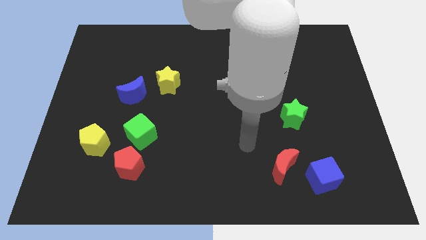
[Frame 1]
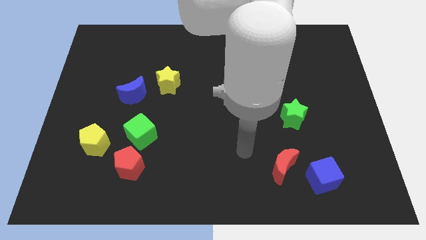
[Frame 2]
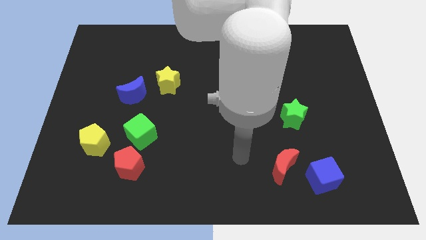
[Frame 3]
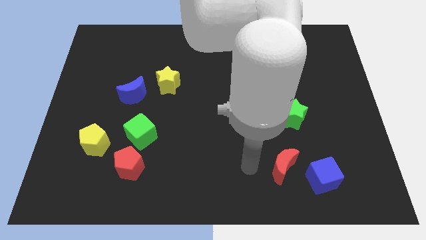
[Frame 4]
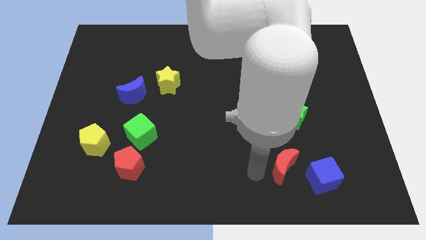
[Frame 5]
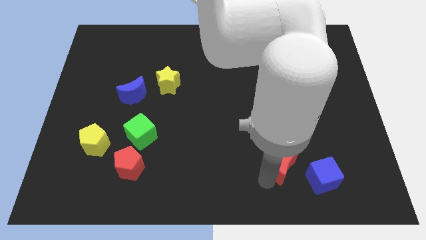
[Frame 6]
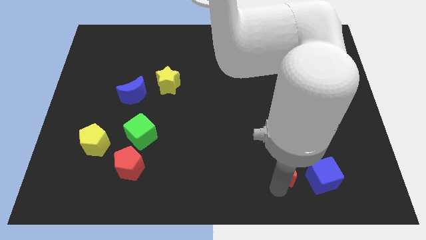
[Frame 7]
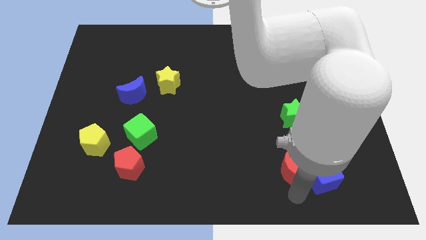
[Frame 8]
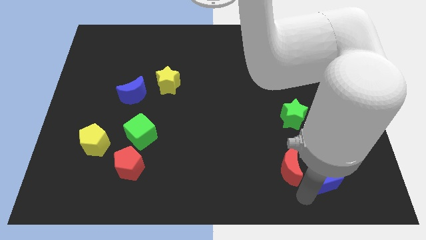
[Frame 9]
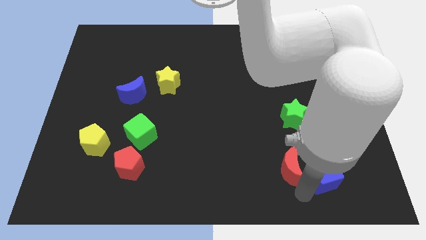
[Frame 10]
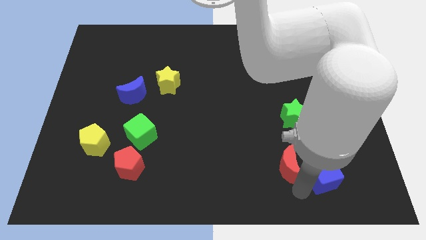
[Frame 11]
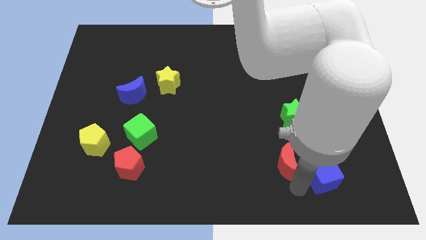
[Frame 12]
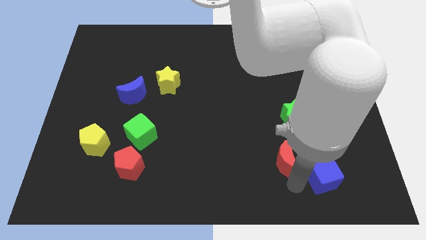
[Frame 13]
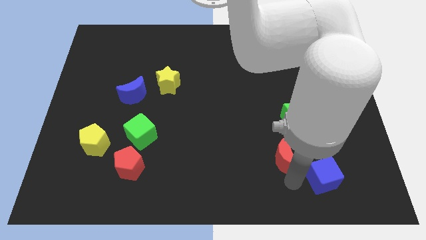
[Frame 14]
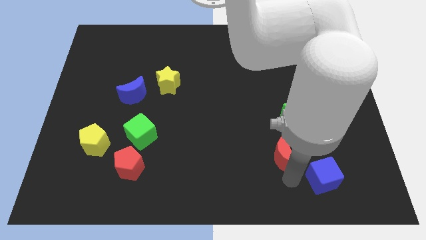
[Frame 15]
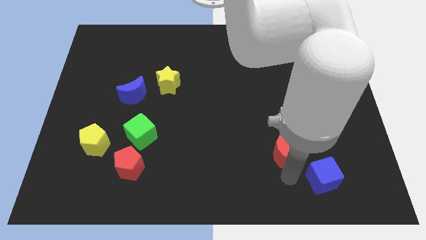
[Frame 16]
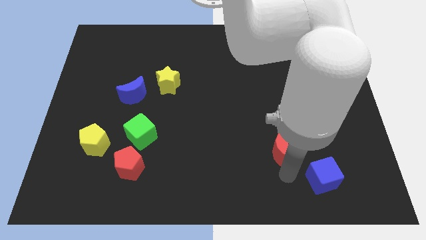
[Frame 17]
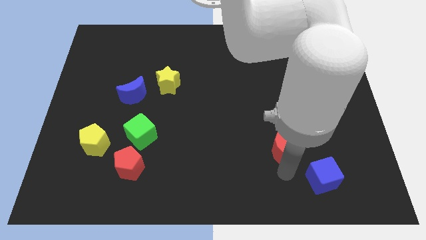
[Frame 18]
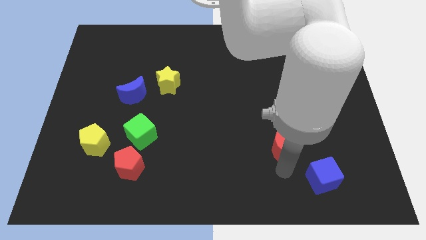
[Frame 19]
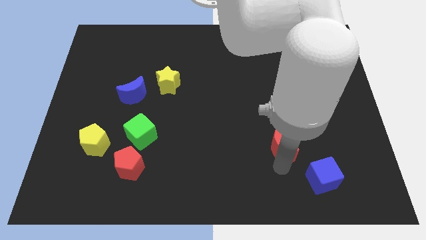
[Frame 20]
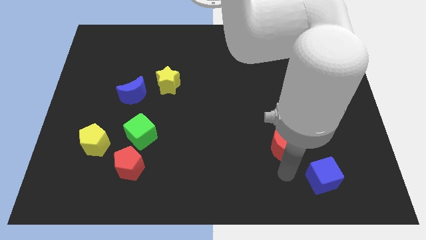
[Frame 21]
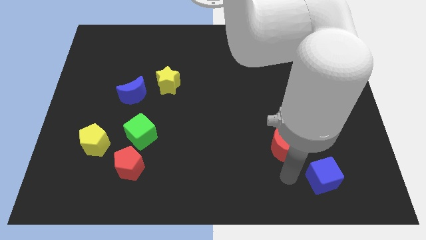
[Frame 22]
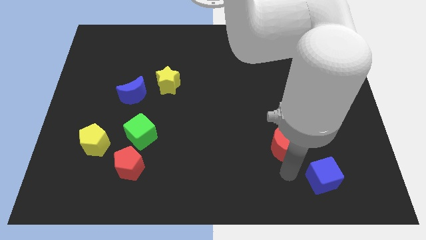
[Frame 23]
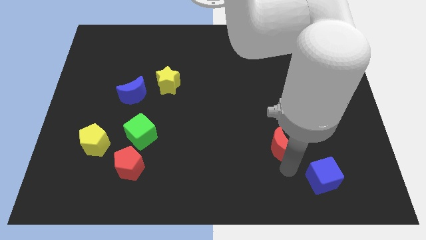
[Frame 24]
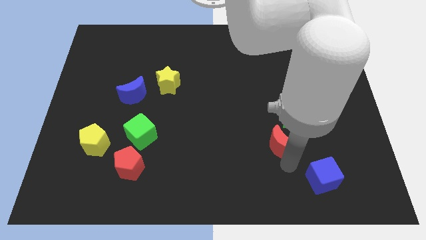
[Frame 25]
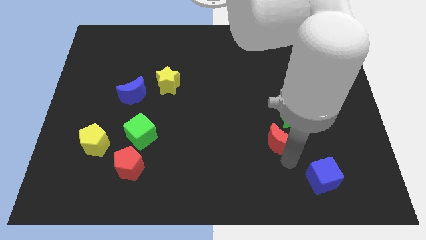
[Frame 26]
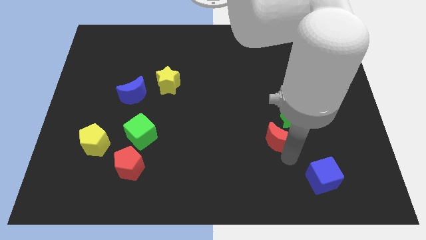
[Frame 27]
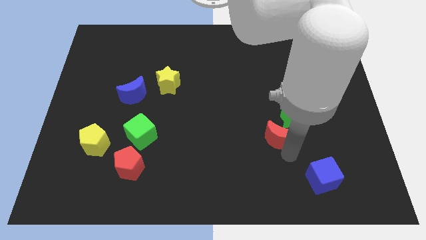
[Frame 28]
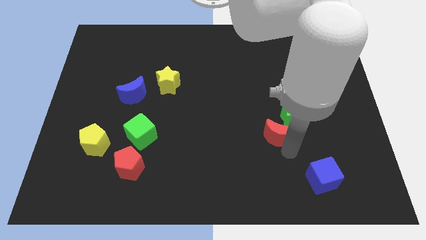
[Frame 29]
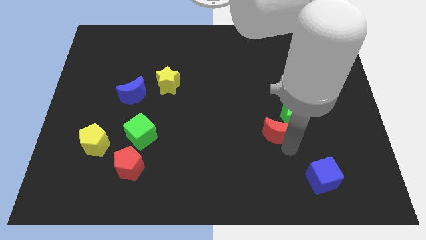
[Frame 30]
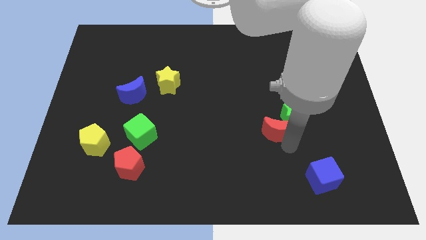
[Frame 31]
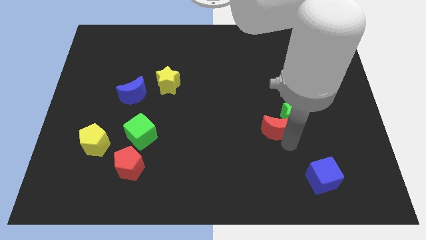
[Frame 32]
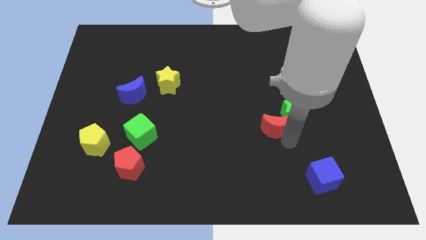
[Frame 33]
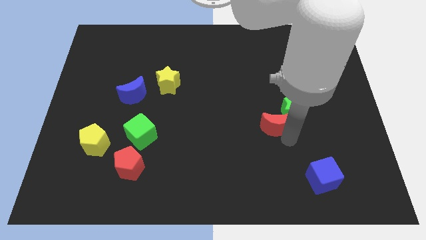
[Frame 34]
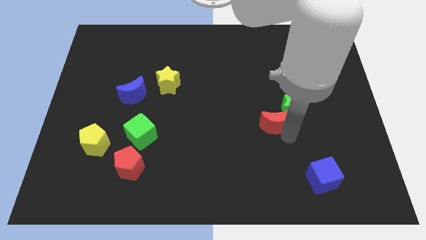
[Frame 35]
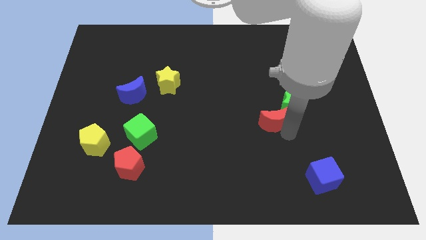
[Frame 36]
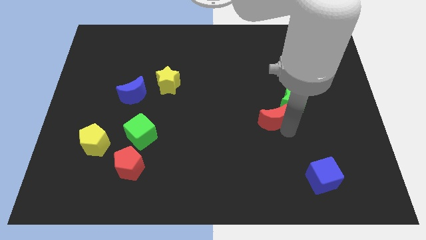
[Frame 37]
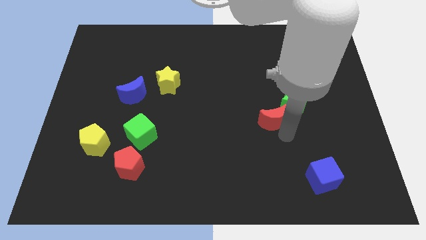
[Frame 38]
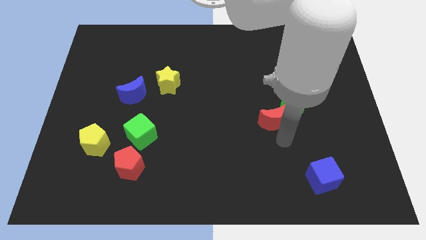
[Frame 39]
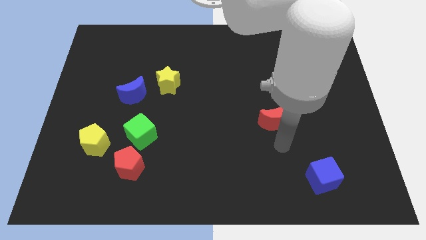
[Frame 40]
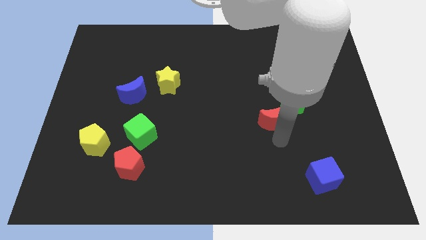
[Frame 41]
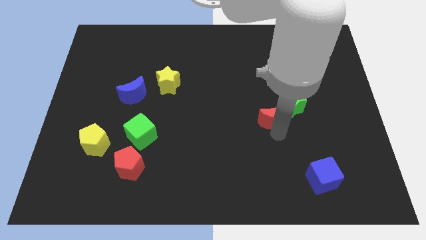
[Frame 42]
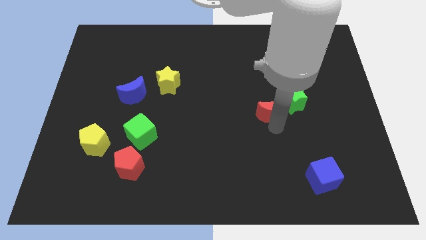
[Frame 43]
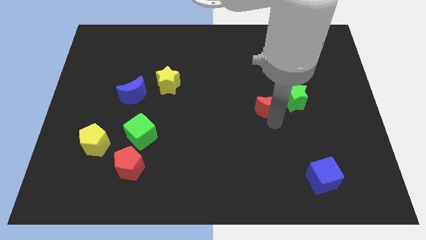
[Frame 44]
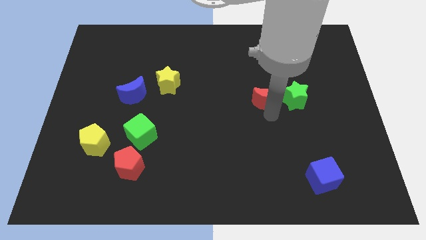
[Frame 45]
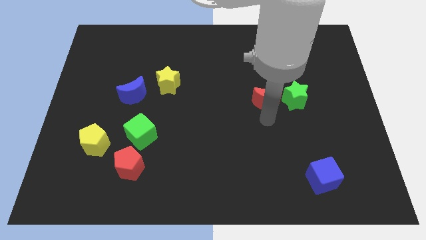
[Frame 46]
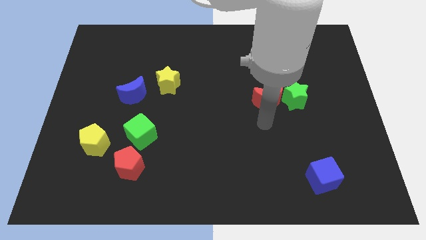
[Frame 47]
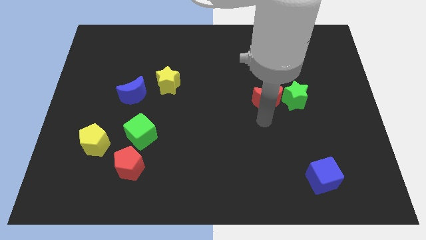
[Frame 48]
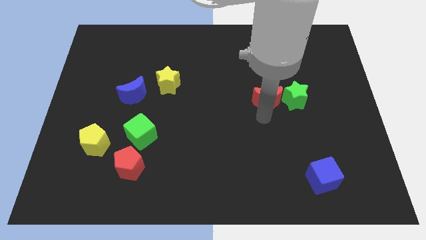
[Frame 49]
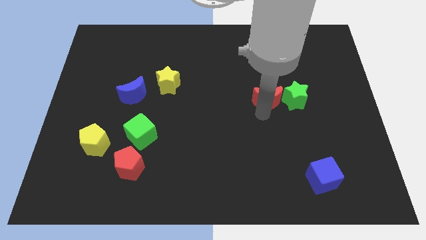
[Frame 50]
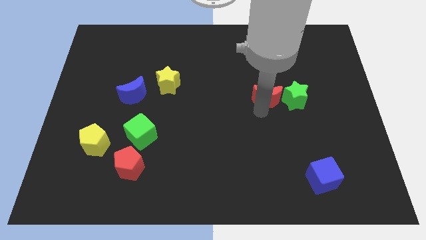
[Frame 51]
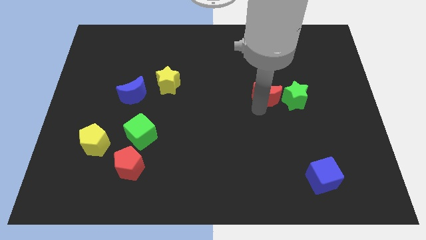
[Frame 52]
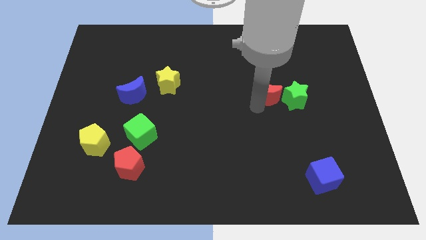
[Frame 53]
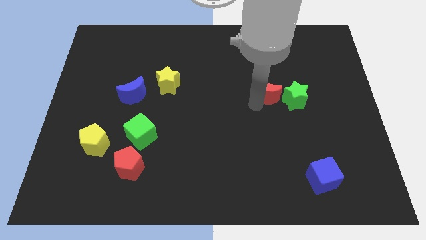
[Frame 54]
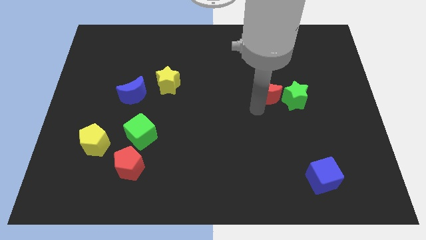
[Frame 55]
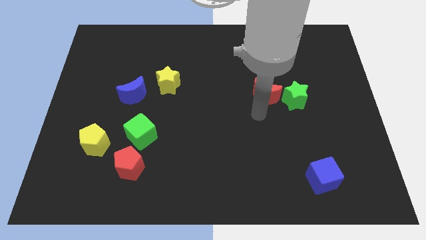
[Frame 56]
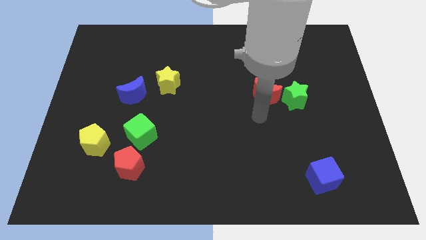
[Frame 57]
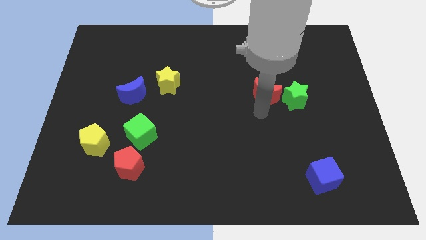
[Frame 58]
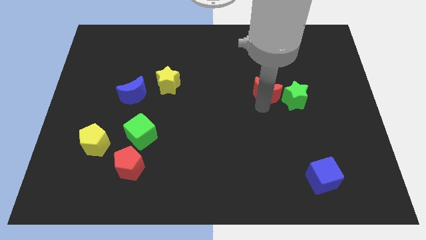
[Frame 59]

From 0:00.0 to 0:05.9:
move the red moon upwards

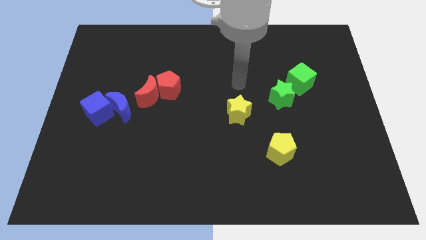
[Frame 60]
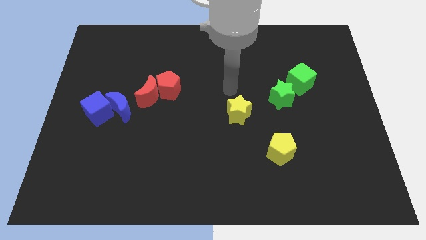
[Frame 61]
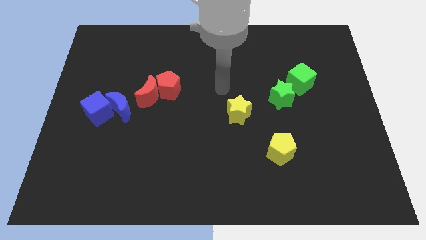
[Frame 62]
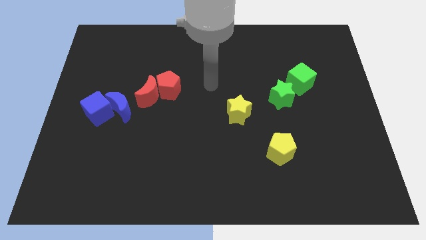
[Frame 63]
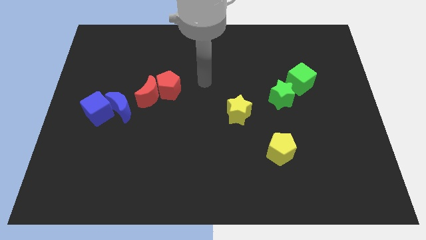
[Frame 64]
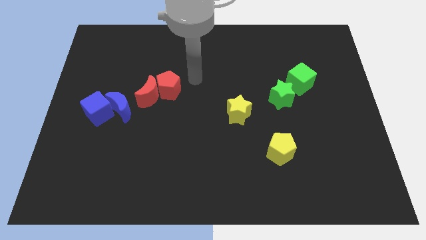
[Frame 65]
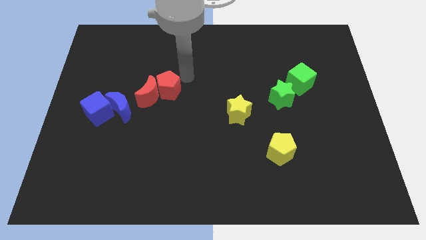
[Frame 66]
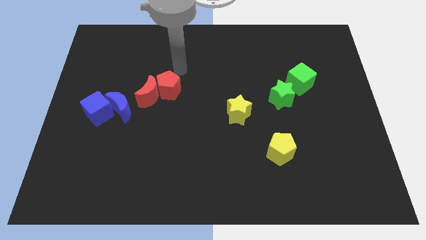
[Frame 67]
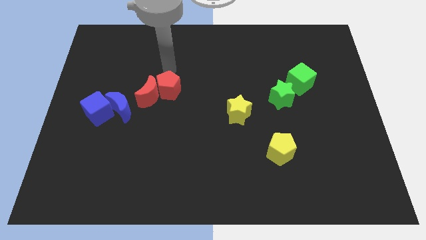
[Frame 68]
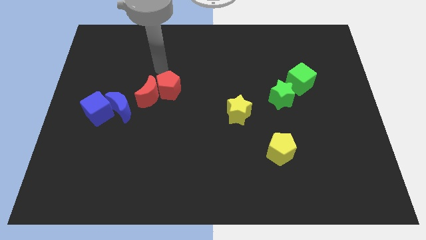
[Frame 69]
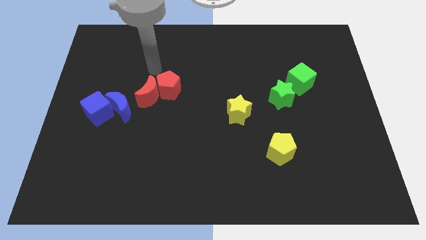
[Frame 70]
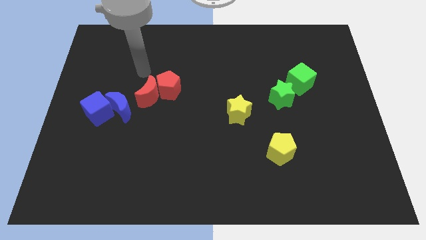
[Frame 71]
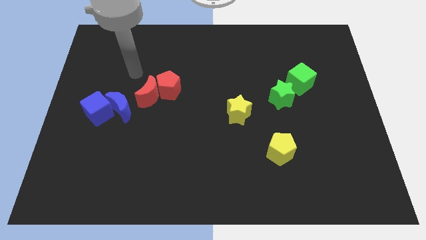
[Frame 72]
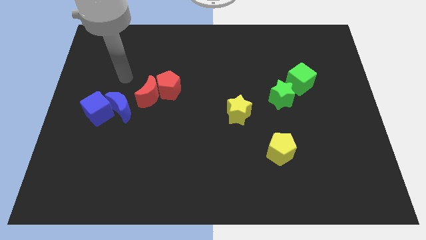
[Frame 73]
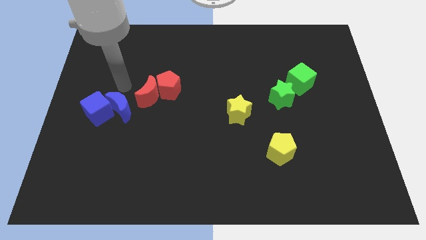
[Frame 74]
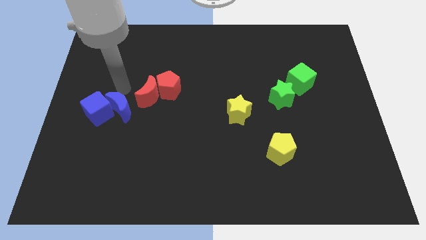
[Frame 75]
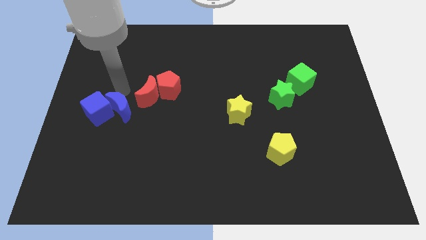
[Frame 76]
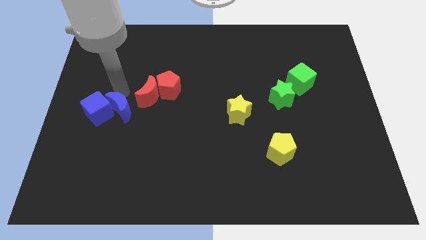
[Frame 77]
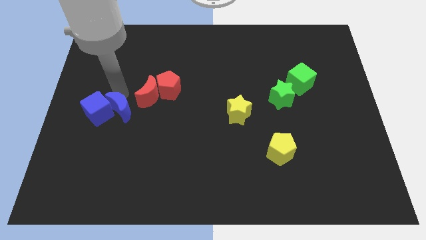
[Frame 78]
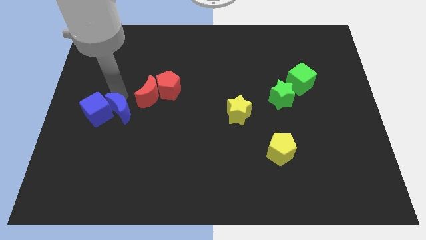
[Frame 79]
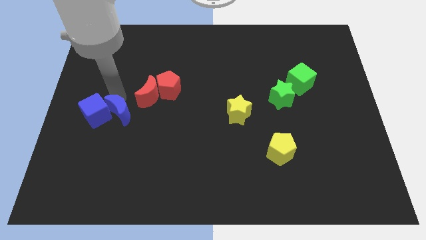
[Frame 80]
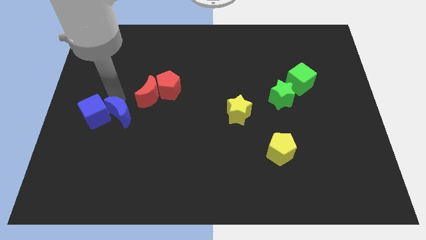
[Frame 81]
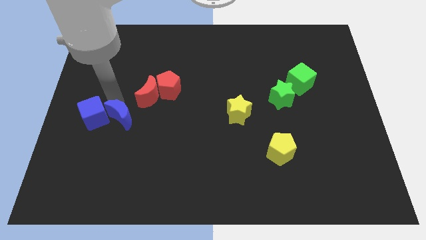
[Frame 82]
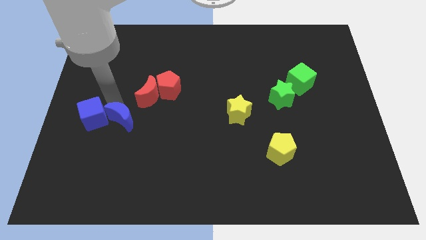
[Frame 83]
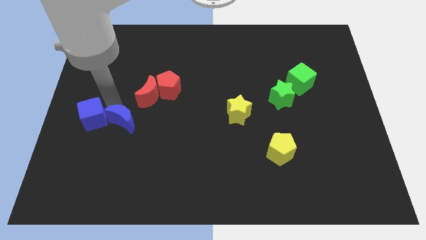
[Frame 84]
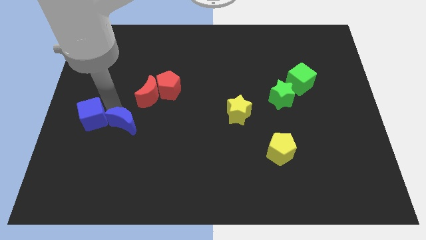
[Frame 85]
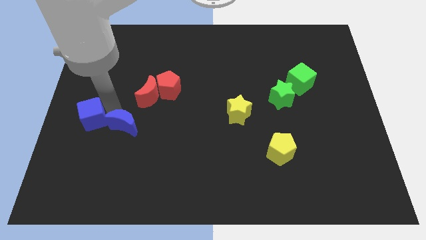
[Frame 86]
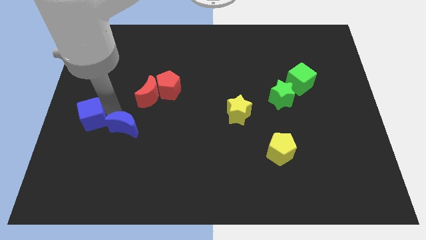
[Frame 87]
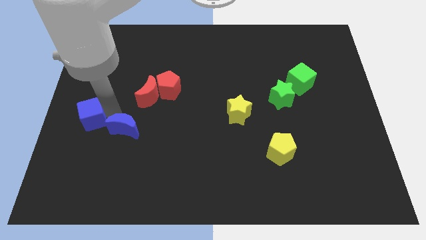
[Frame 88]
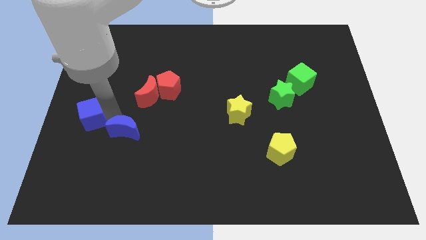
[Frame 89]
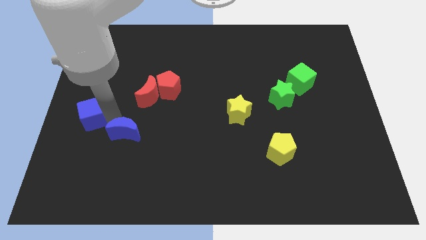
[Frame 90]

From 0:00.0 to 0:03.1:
slightly move the blue moon downwards
